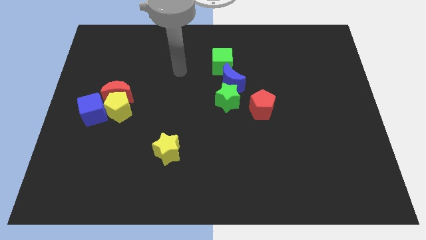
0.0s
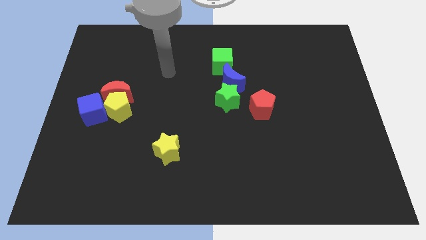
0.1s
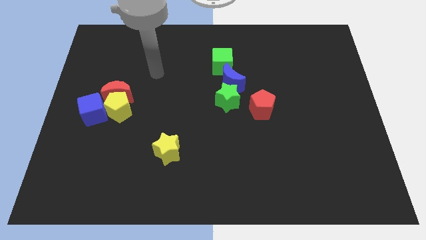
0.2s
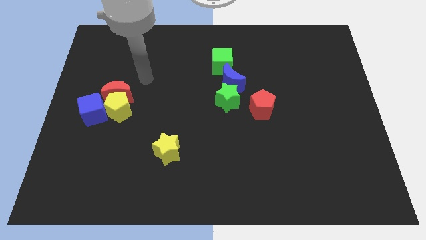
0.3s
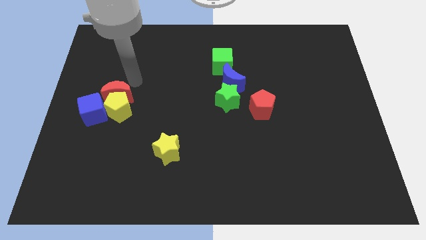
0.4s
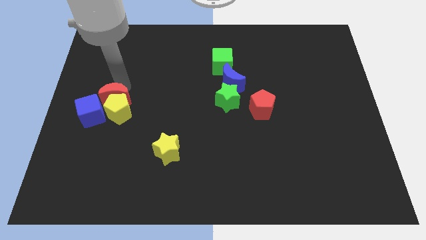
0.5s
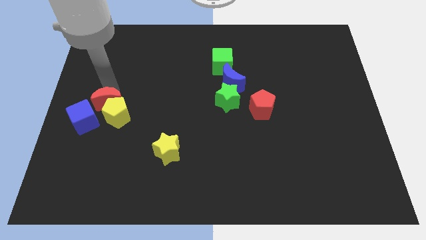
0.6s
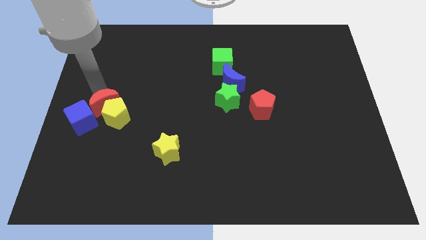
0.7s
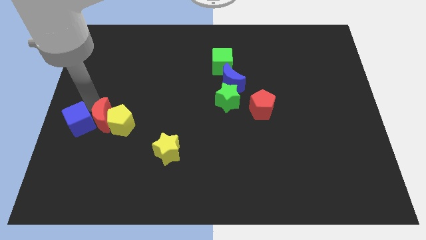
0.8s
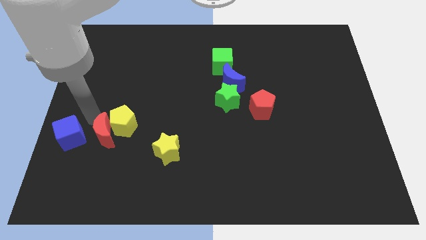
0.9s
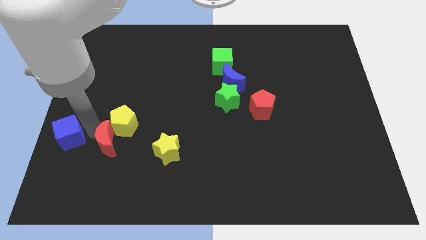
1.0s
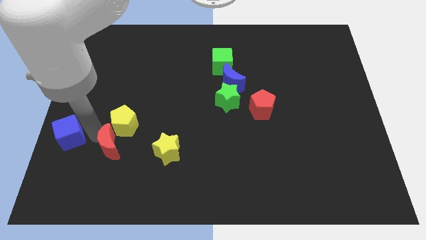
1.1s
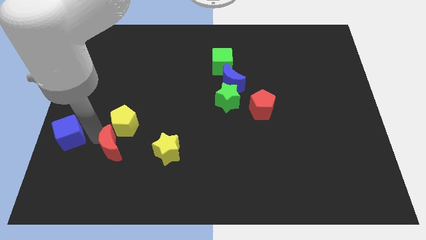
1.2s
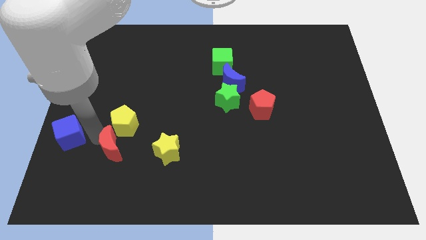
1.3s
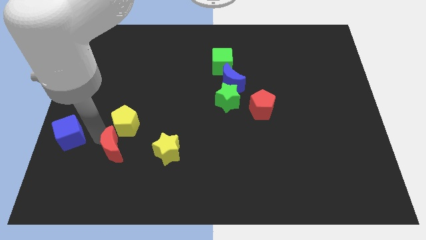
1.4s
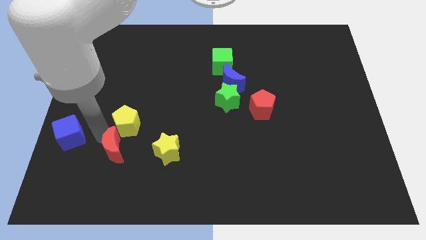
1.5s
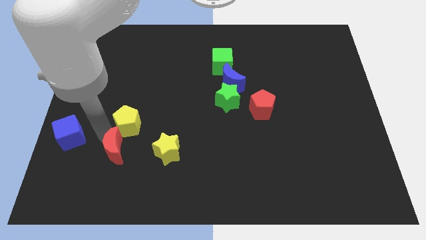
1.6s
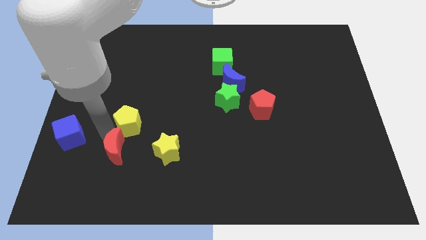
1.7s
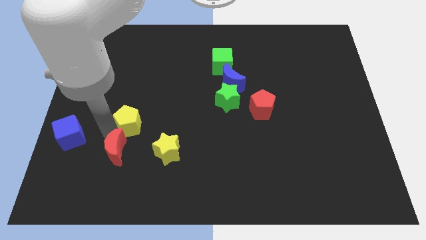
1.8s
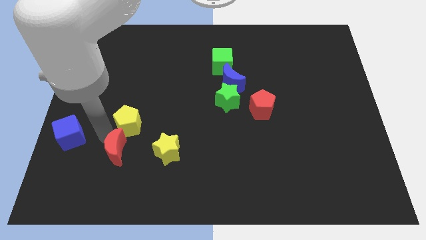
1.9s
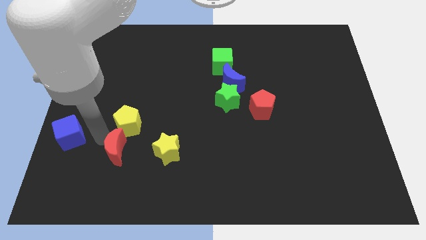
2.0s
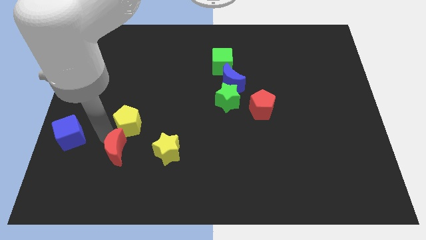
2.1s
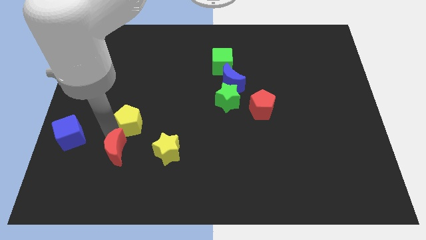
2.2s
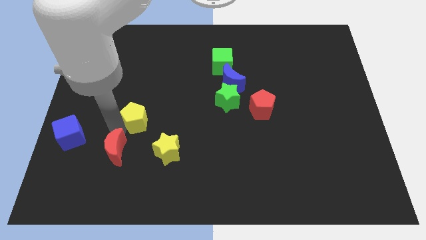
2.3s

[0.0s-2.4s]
pull the yellow pentagon apart from the red moon and blue cube

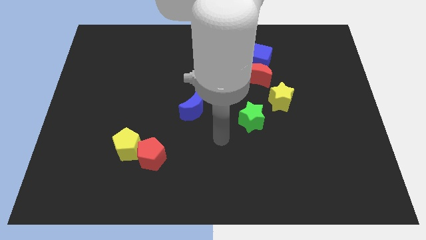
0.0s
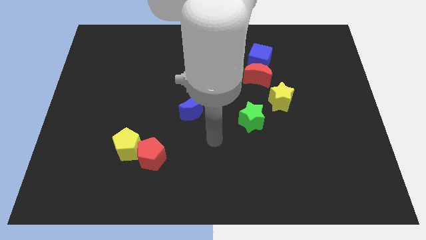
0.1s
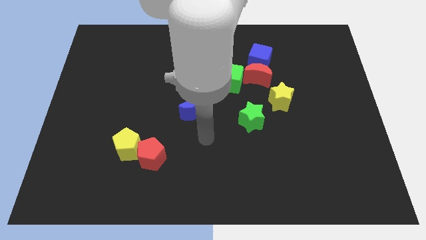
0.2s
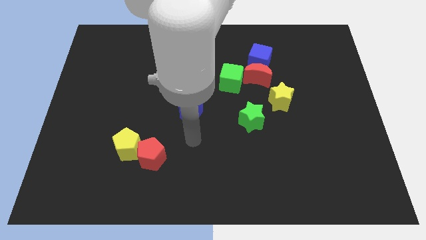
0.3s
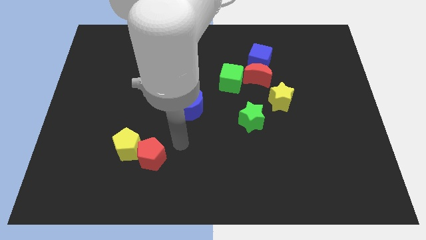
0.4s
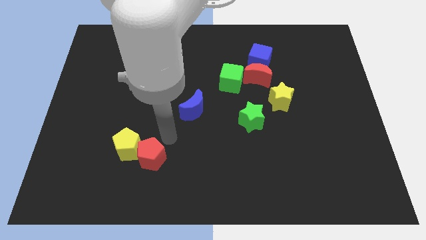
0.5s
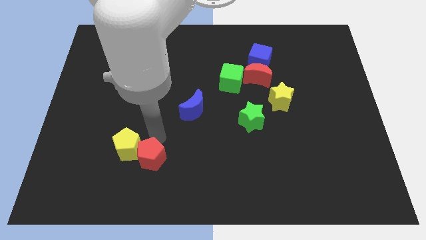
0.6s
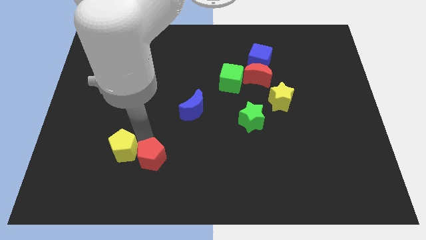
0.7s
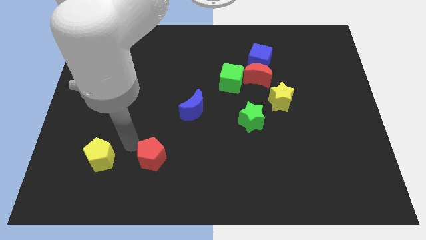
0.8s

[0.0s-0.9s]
separate the red pentagon from the yellow pentagon

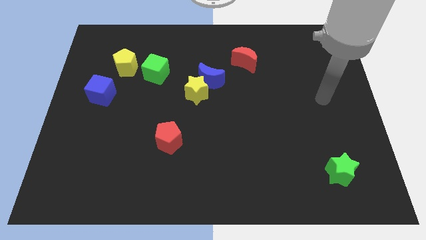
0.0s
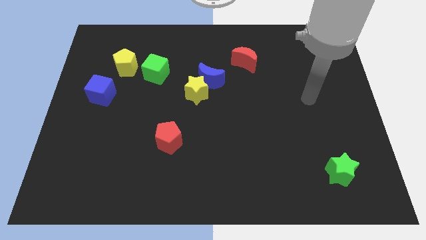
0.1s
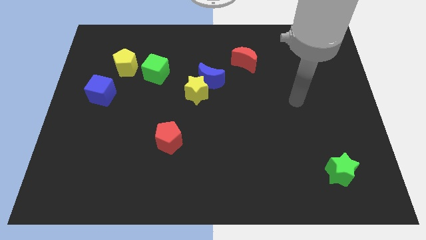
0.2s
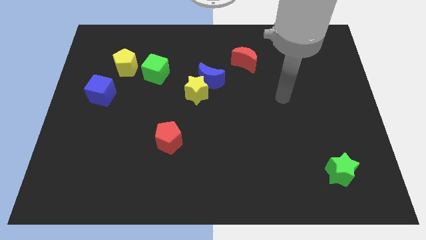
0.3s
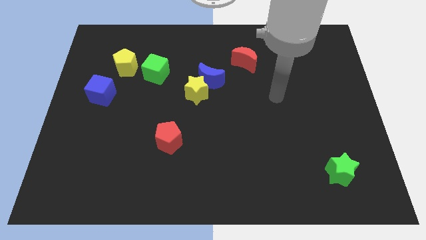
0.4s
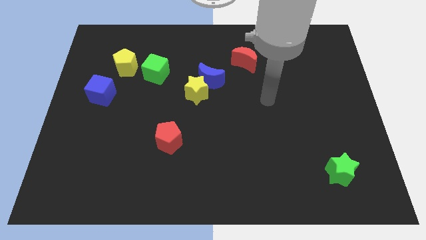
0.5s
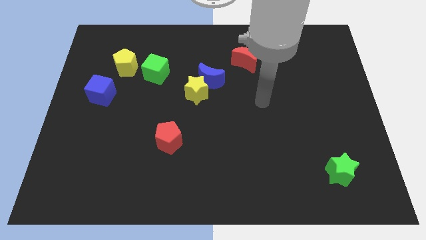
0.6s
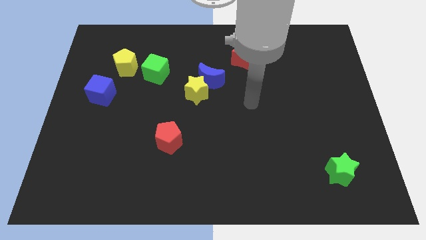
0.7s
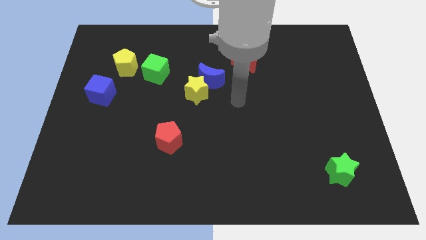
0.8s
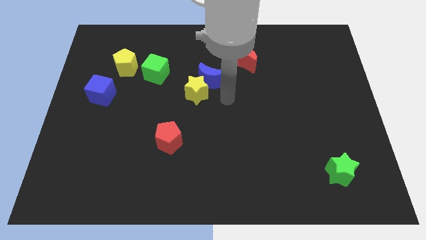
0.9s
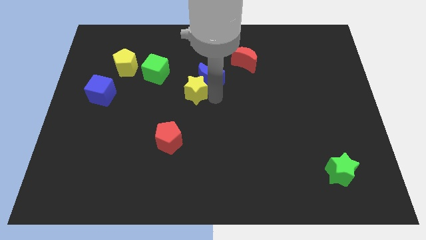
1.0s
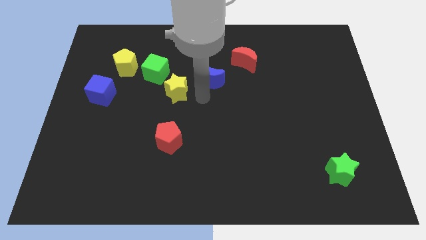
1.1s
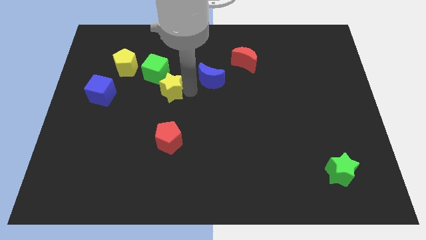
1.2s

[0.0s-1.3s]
pull the blue moon apart from the yellow star

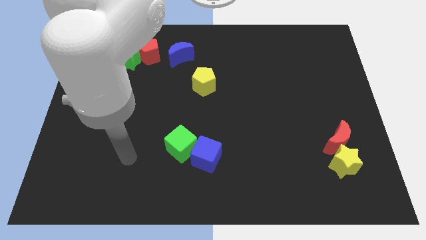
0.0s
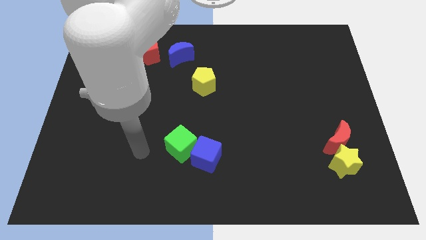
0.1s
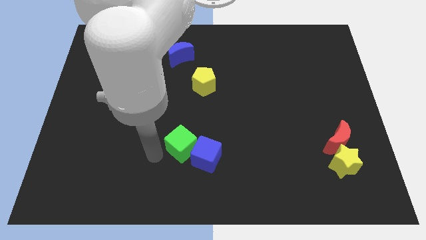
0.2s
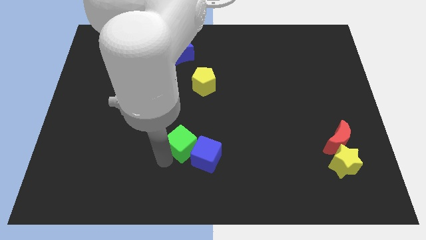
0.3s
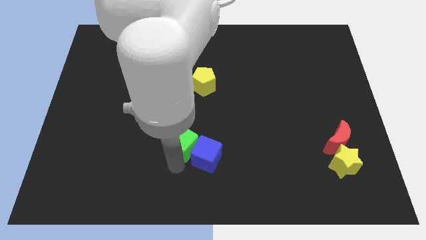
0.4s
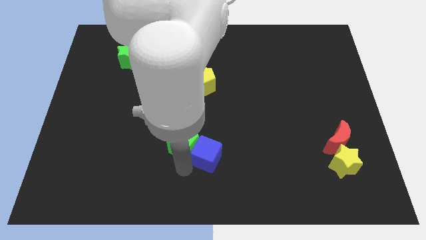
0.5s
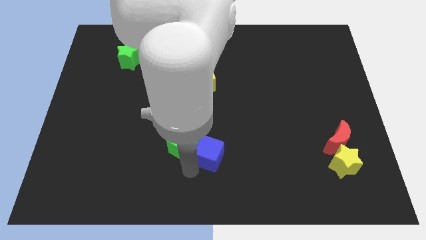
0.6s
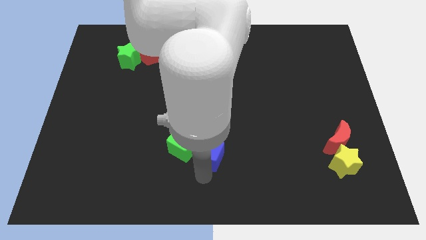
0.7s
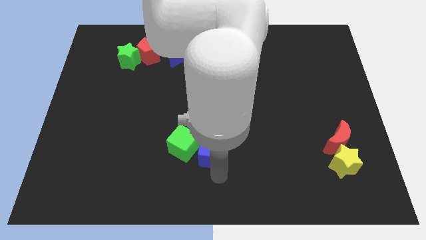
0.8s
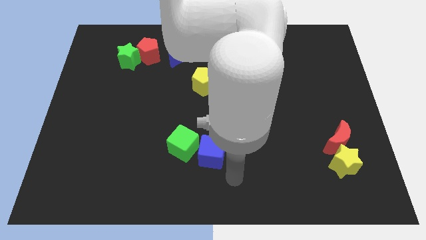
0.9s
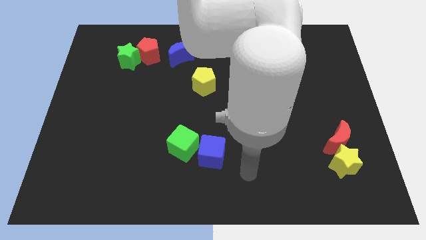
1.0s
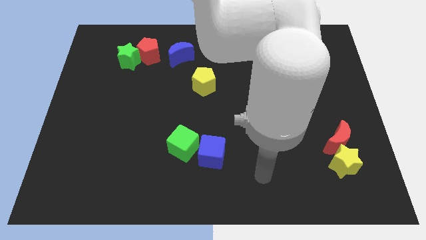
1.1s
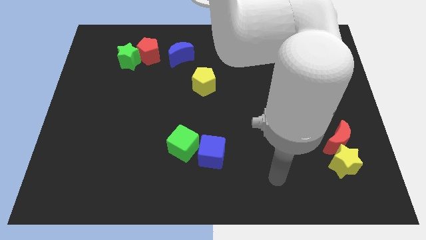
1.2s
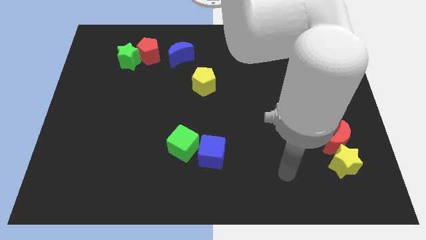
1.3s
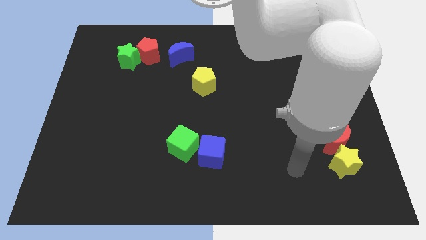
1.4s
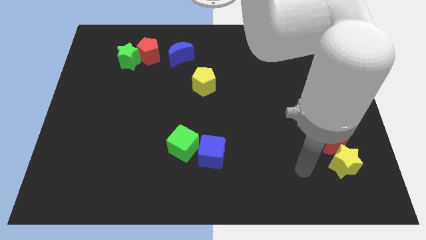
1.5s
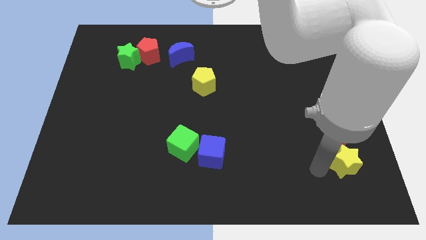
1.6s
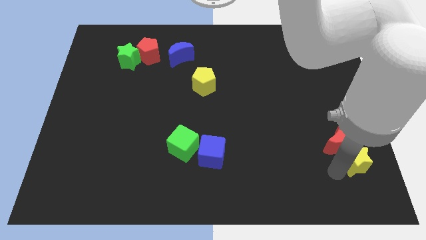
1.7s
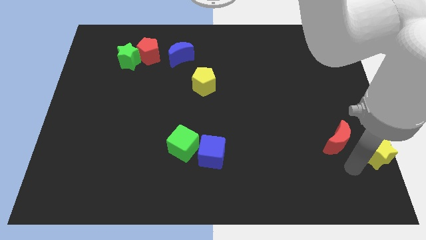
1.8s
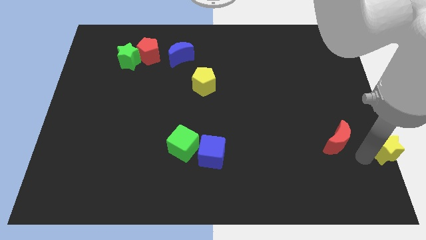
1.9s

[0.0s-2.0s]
move the red moon away from the yellow star

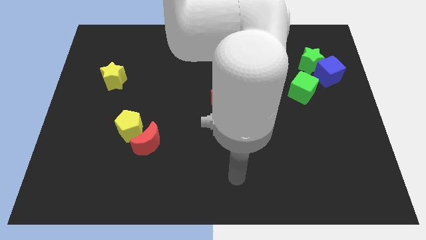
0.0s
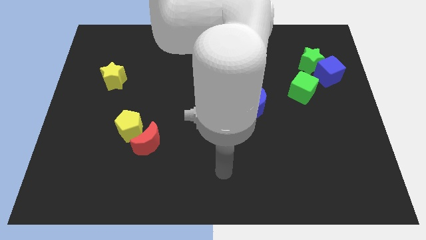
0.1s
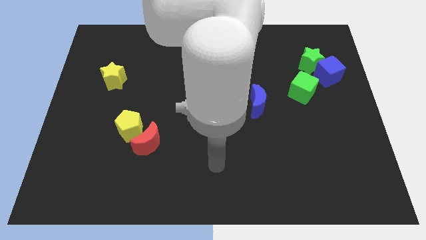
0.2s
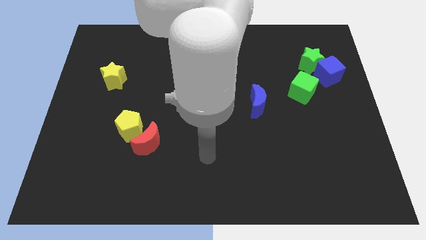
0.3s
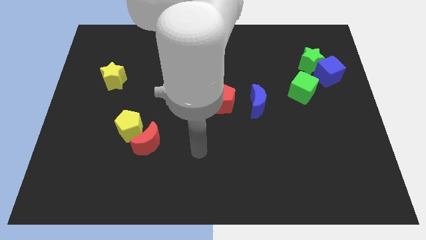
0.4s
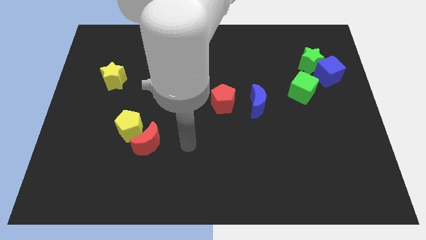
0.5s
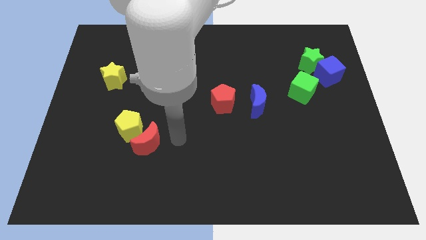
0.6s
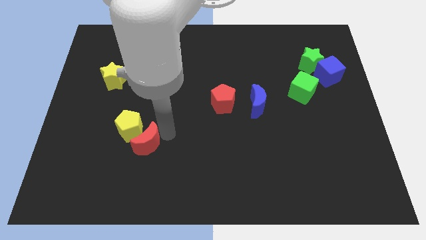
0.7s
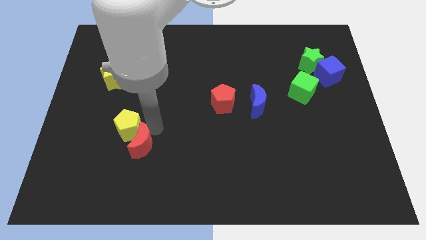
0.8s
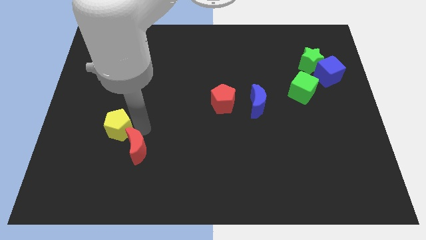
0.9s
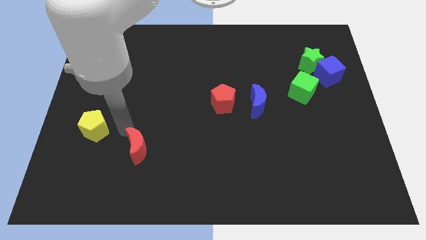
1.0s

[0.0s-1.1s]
move the red moon away from the yellow pentagon

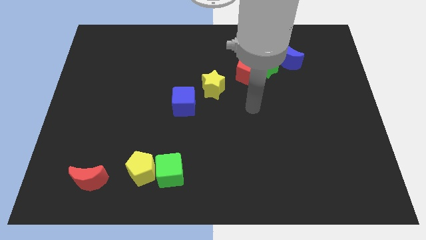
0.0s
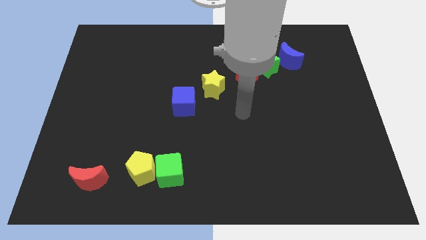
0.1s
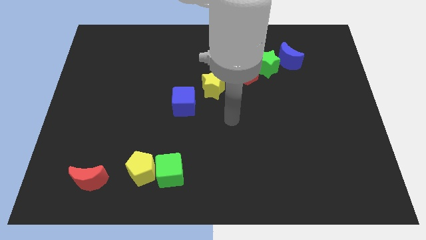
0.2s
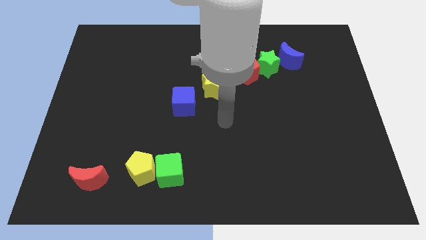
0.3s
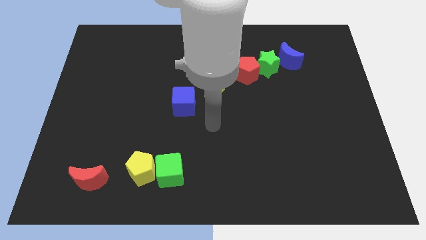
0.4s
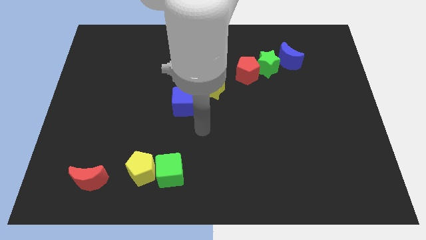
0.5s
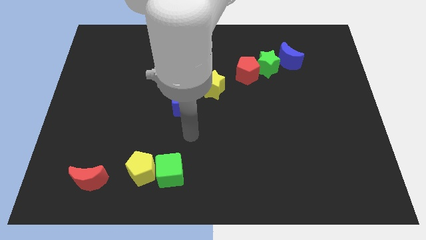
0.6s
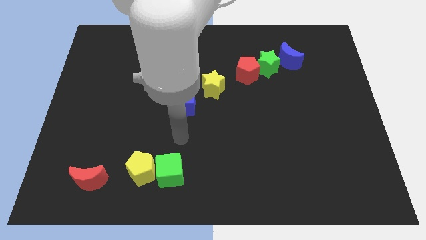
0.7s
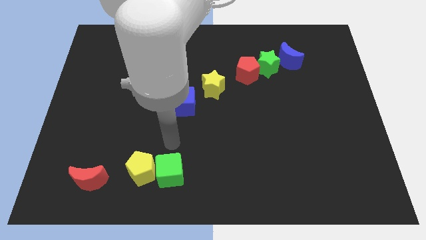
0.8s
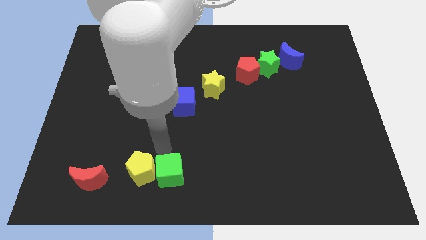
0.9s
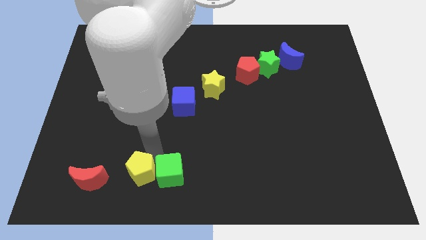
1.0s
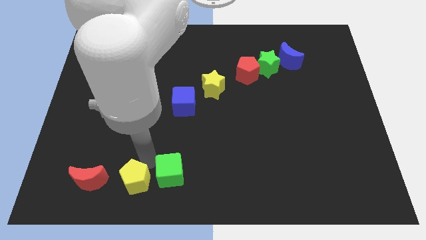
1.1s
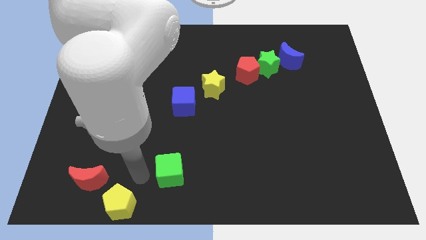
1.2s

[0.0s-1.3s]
separate the green cube from the yellow pentagon

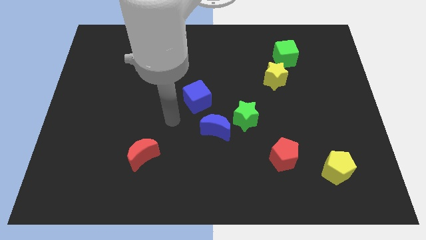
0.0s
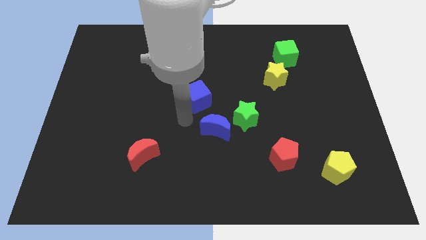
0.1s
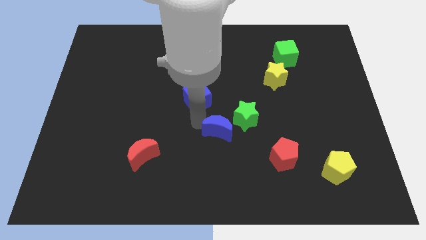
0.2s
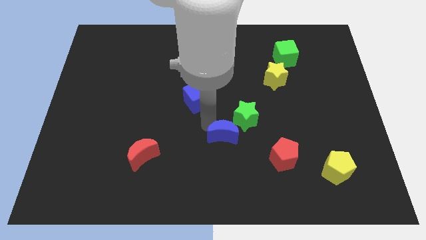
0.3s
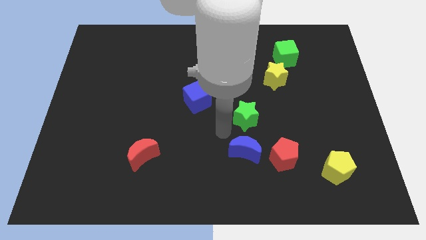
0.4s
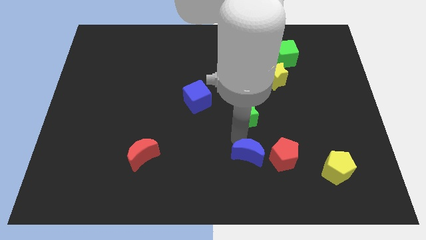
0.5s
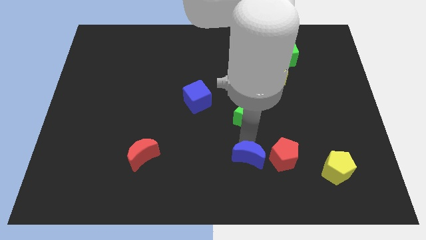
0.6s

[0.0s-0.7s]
pull the green star apart from the blue moon
